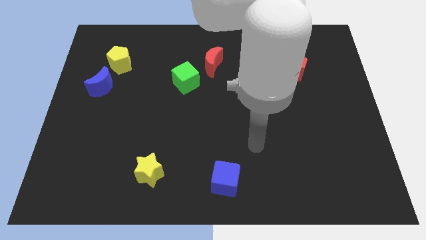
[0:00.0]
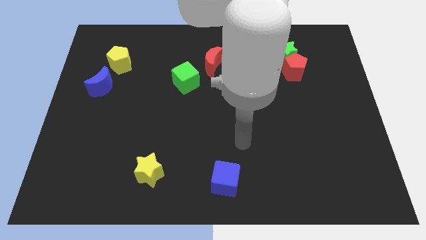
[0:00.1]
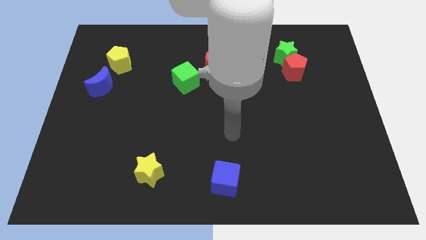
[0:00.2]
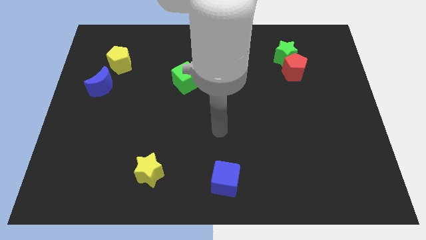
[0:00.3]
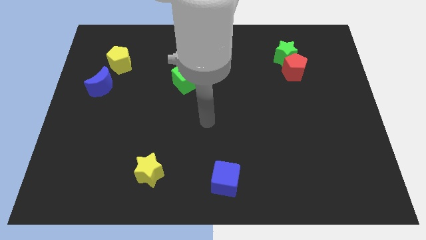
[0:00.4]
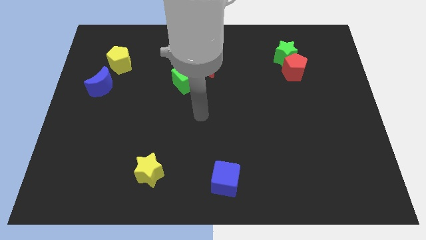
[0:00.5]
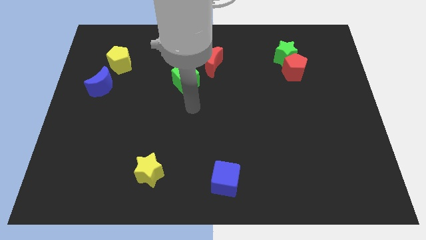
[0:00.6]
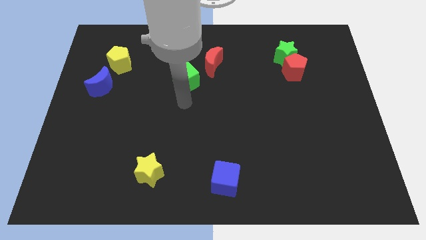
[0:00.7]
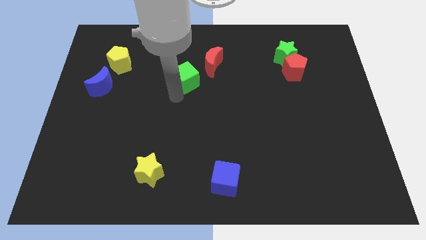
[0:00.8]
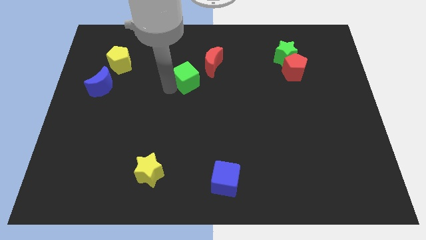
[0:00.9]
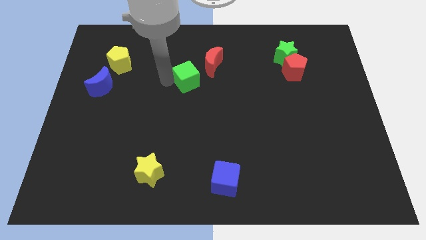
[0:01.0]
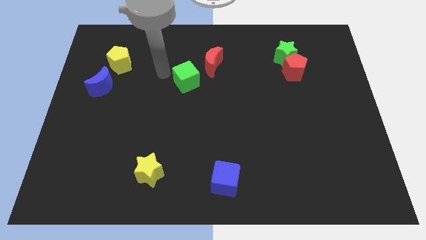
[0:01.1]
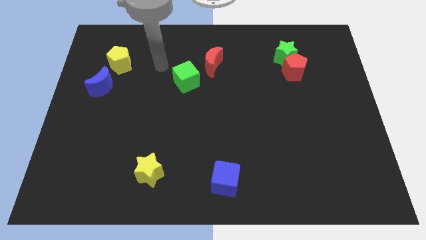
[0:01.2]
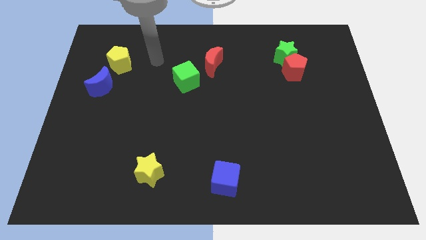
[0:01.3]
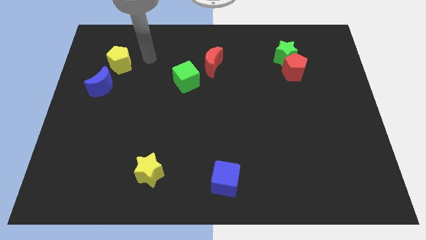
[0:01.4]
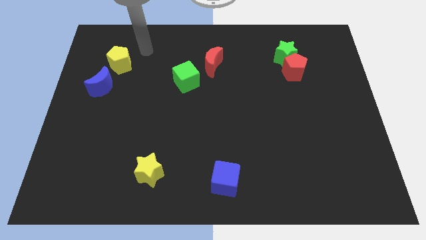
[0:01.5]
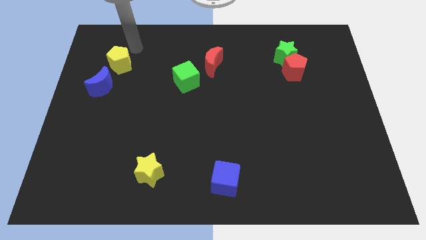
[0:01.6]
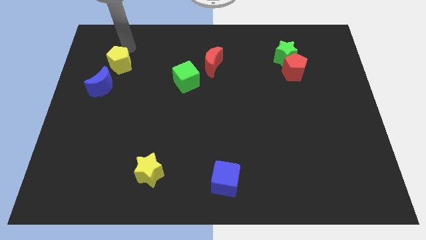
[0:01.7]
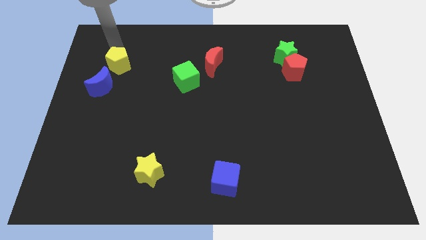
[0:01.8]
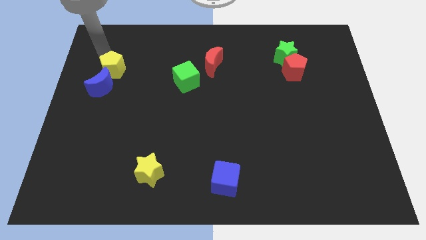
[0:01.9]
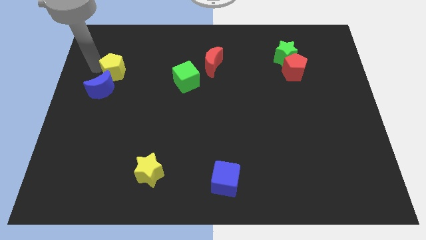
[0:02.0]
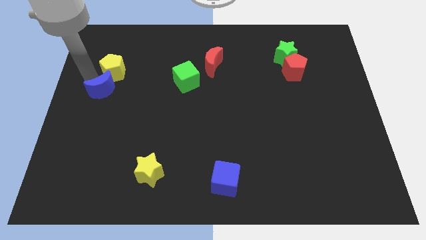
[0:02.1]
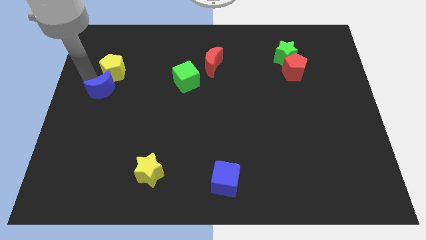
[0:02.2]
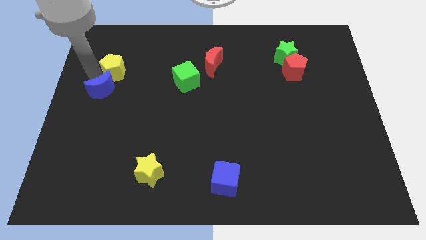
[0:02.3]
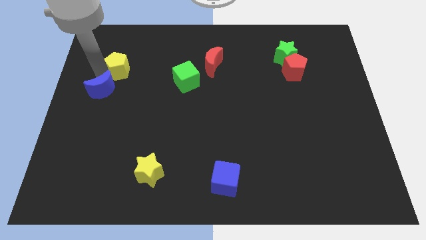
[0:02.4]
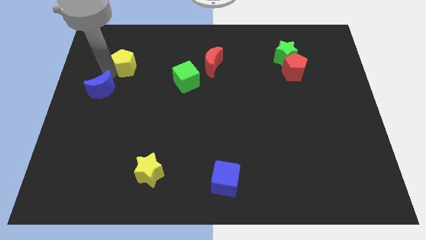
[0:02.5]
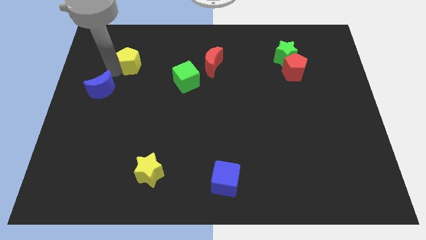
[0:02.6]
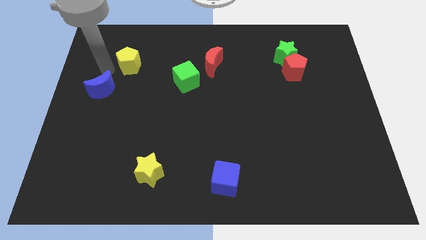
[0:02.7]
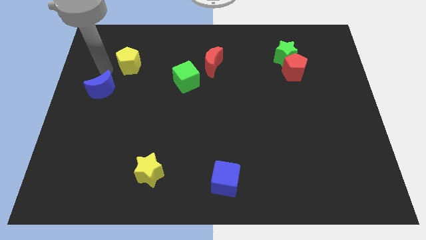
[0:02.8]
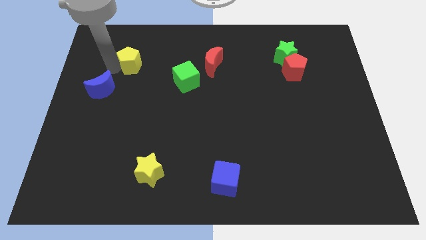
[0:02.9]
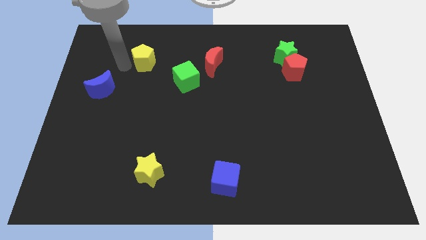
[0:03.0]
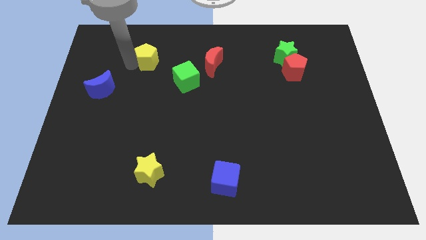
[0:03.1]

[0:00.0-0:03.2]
move the yellow pentagon to the right slightly

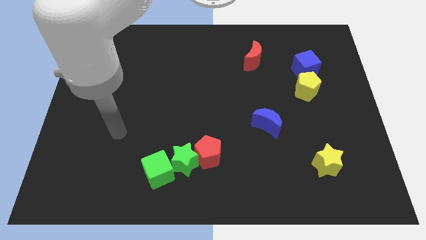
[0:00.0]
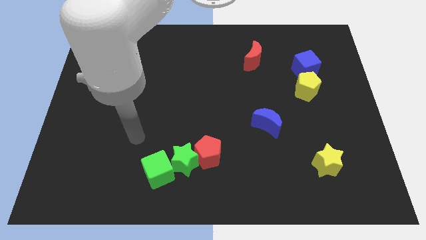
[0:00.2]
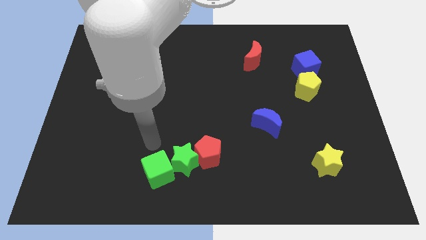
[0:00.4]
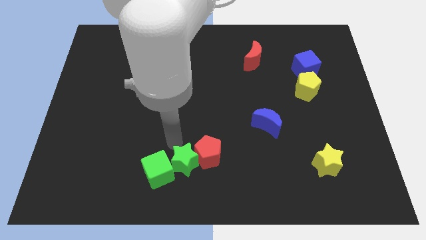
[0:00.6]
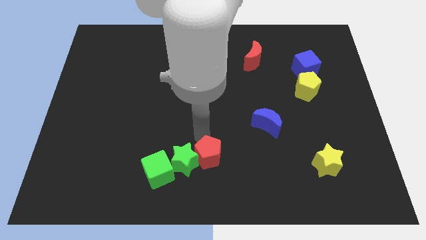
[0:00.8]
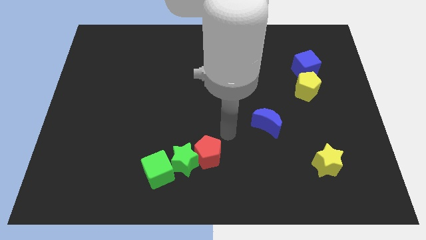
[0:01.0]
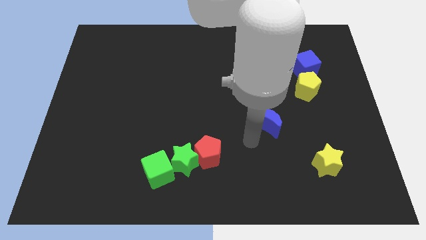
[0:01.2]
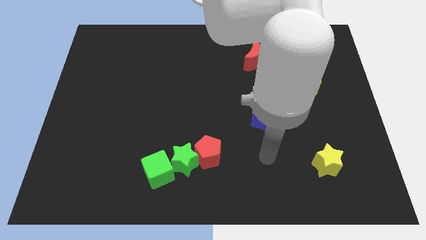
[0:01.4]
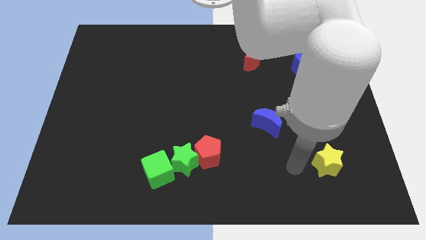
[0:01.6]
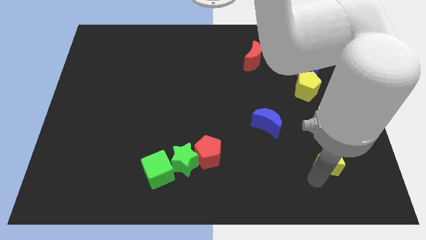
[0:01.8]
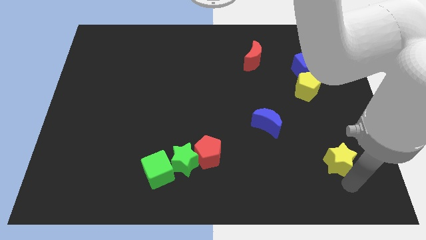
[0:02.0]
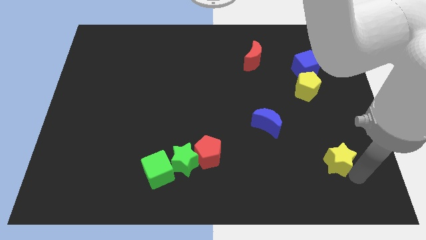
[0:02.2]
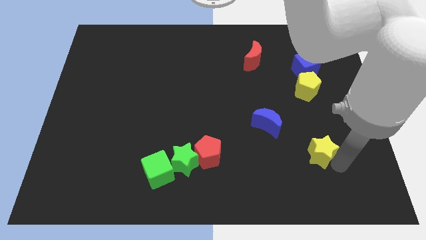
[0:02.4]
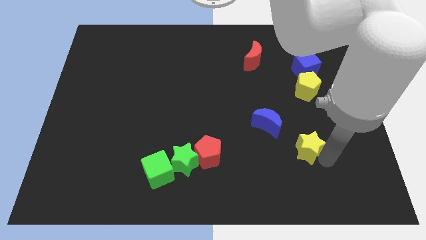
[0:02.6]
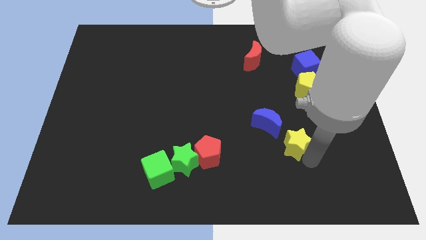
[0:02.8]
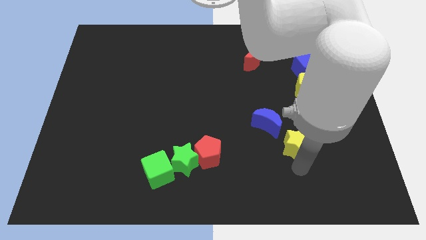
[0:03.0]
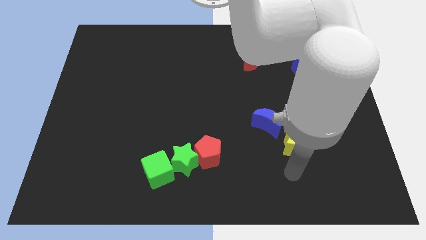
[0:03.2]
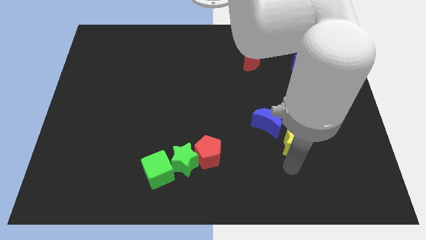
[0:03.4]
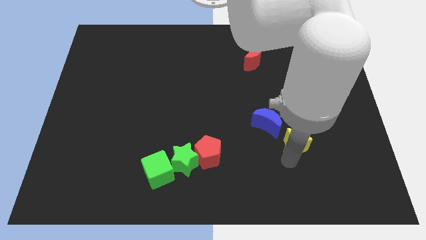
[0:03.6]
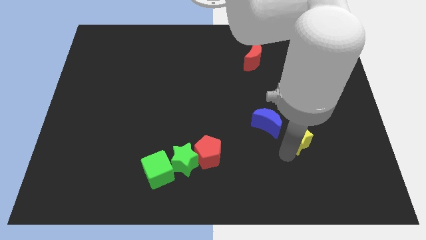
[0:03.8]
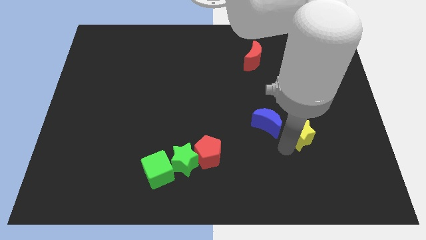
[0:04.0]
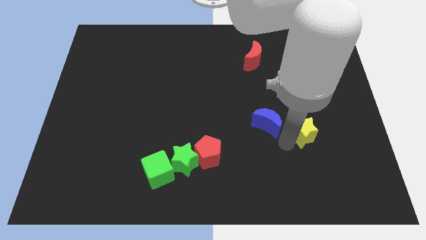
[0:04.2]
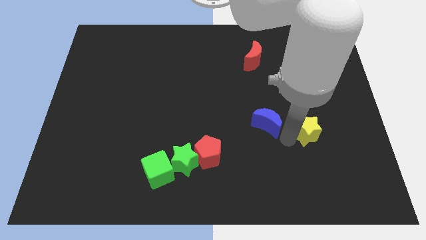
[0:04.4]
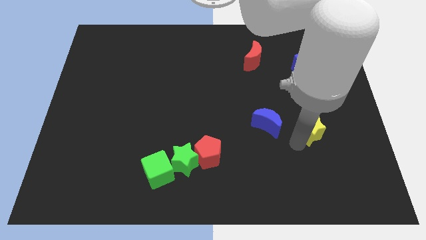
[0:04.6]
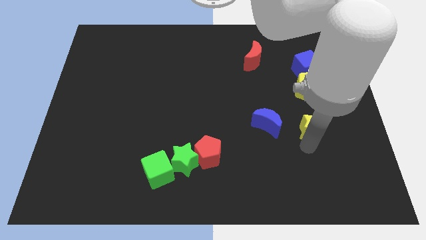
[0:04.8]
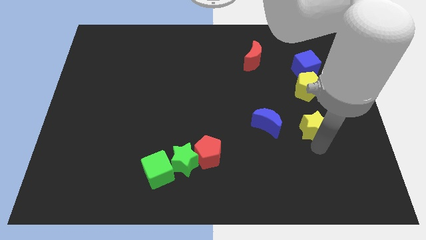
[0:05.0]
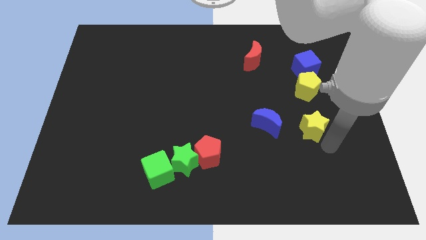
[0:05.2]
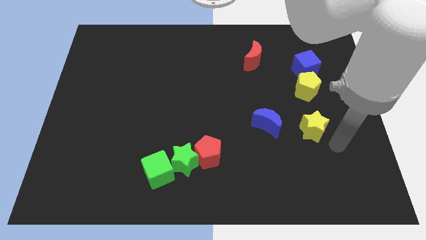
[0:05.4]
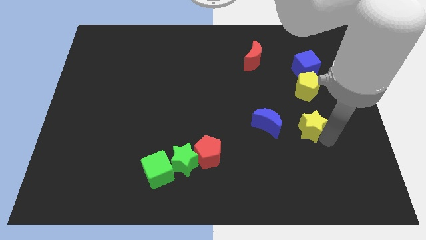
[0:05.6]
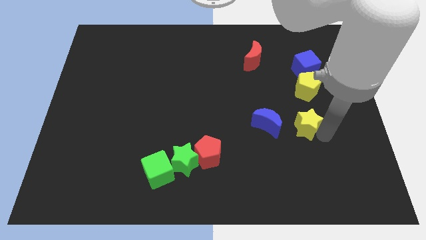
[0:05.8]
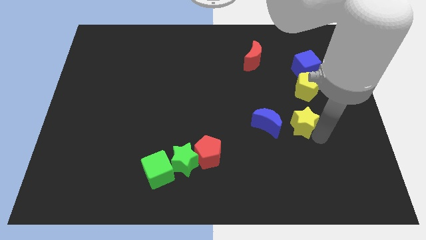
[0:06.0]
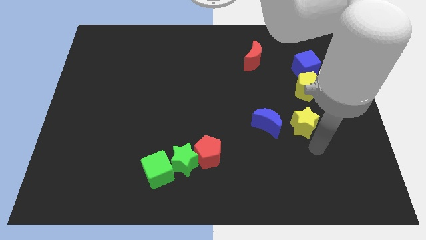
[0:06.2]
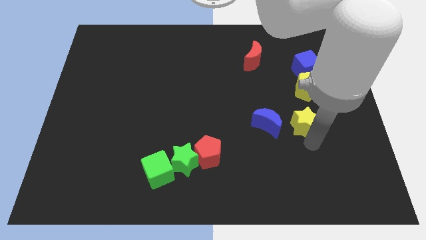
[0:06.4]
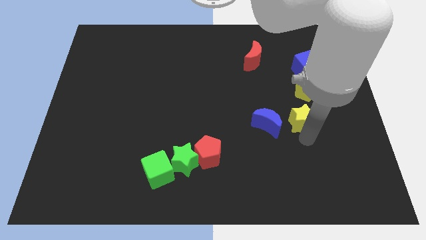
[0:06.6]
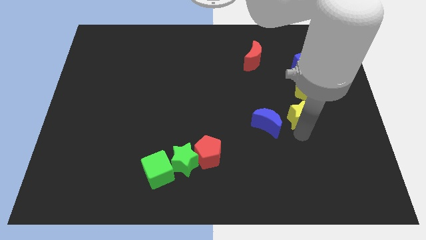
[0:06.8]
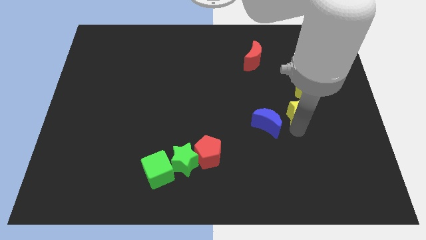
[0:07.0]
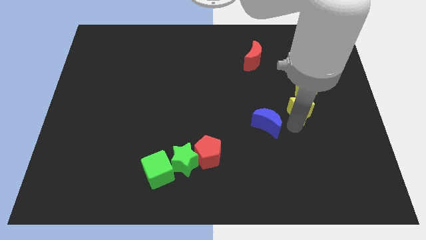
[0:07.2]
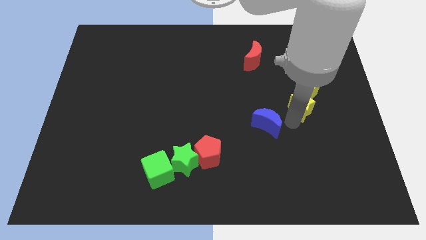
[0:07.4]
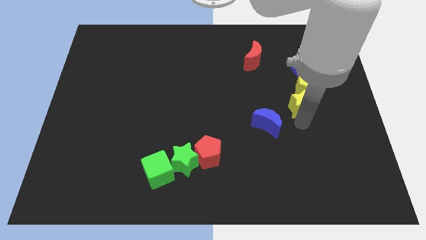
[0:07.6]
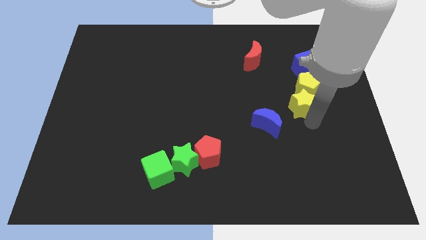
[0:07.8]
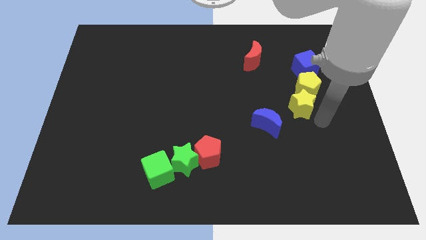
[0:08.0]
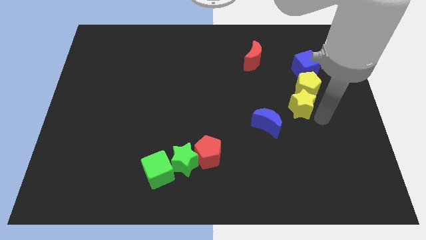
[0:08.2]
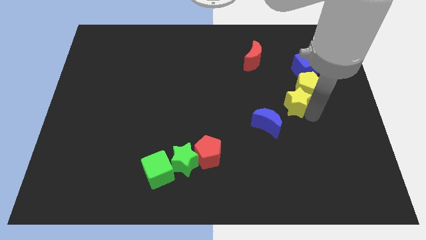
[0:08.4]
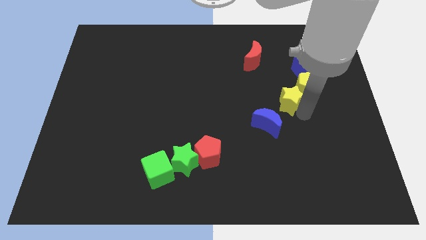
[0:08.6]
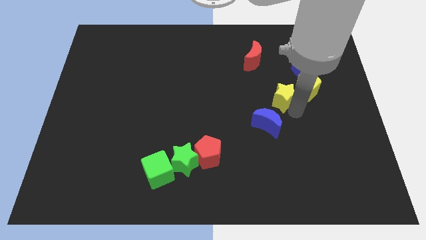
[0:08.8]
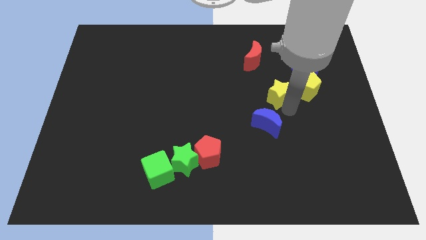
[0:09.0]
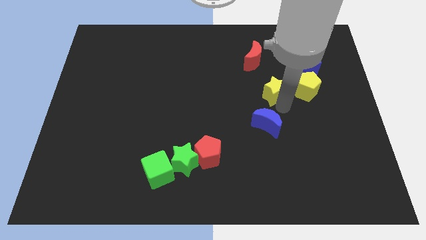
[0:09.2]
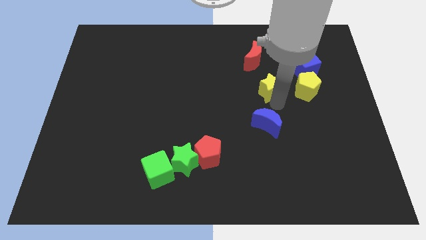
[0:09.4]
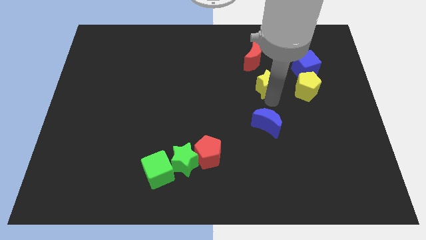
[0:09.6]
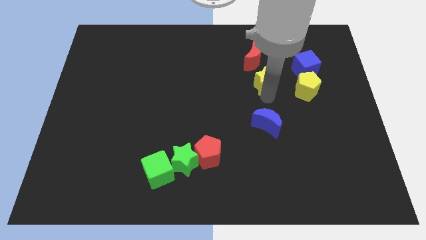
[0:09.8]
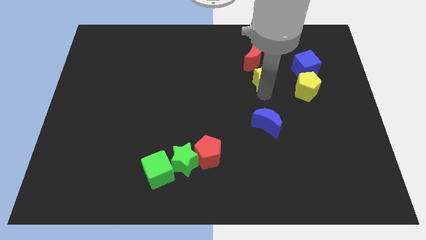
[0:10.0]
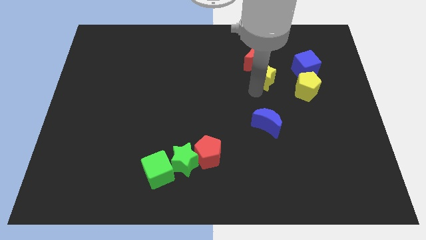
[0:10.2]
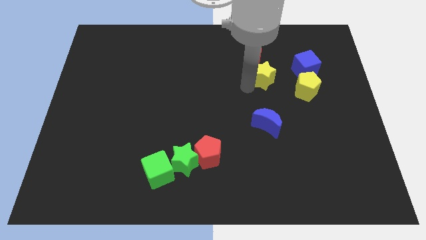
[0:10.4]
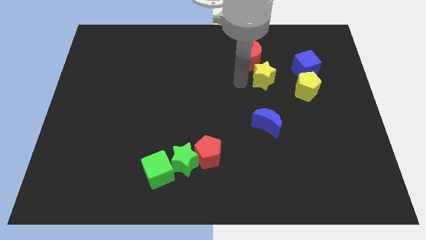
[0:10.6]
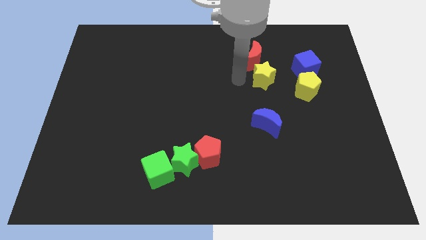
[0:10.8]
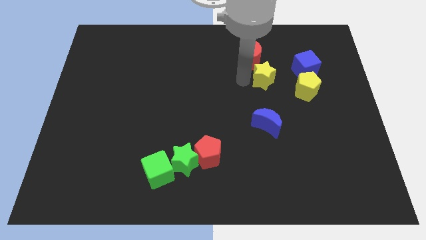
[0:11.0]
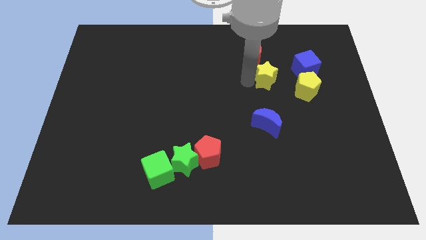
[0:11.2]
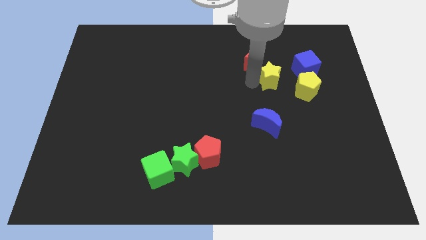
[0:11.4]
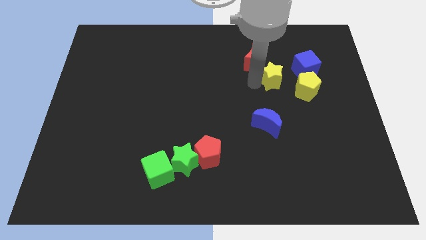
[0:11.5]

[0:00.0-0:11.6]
move the yellow star up
